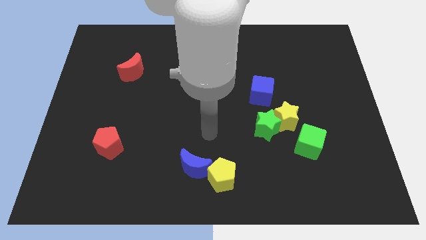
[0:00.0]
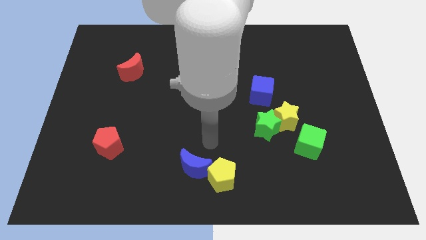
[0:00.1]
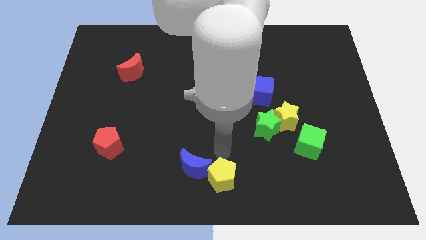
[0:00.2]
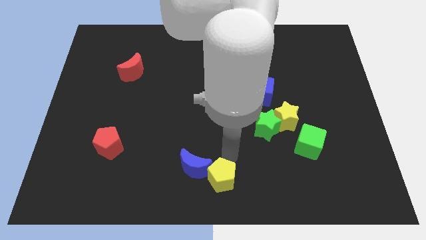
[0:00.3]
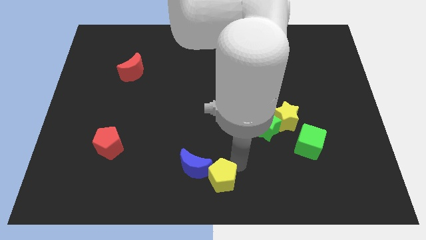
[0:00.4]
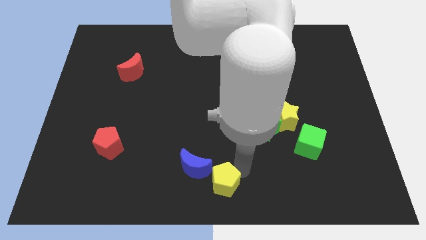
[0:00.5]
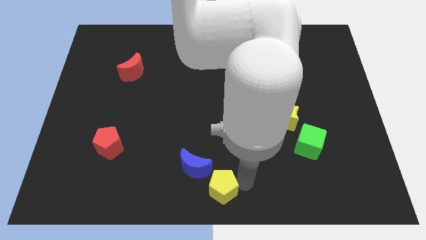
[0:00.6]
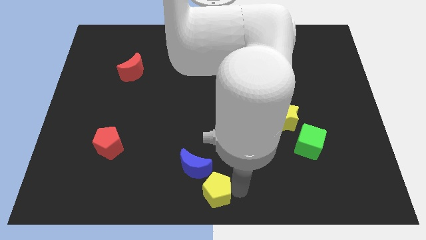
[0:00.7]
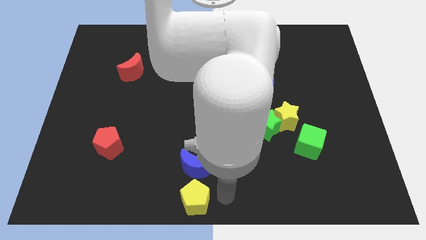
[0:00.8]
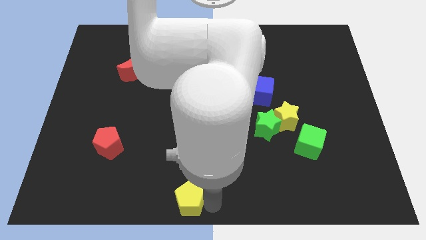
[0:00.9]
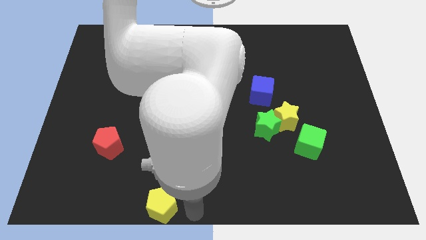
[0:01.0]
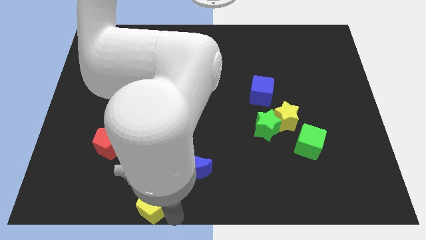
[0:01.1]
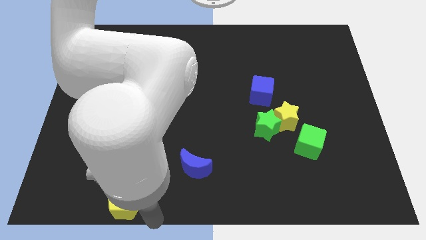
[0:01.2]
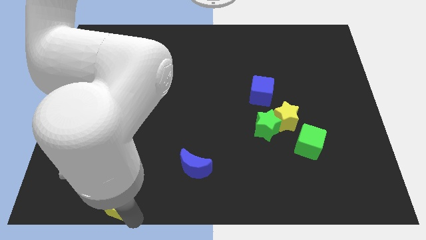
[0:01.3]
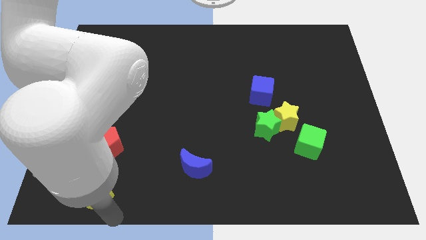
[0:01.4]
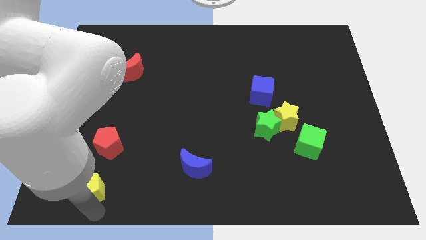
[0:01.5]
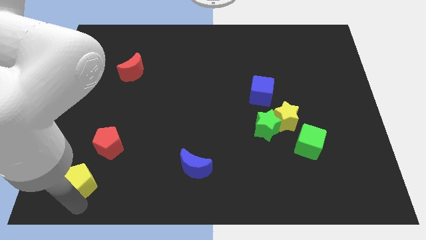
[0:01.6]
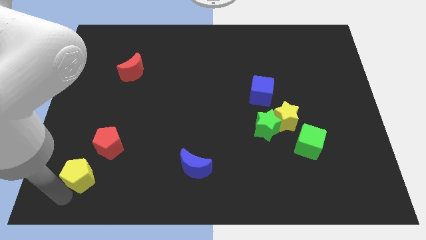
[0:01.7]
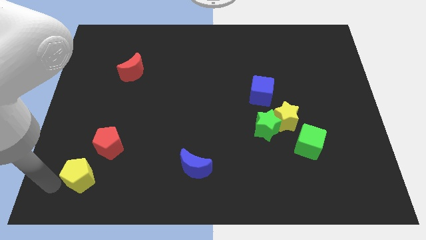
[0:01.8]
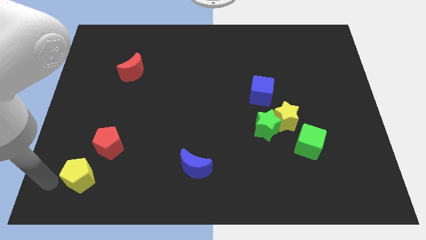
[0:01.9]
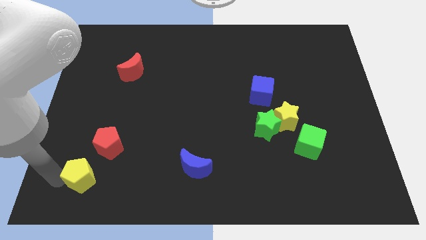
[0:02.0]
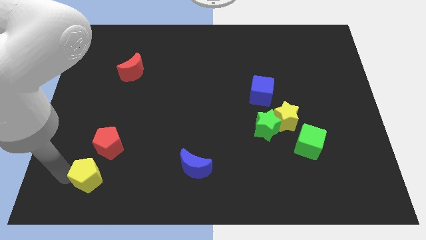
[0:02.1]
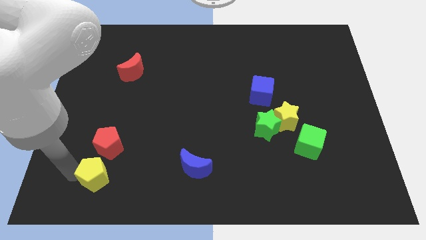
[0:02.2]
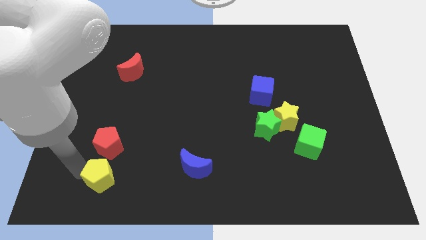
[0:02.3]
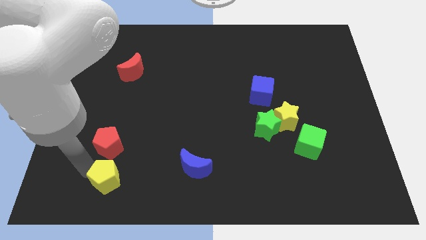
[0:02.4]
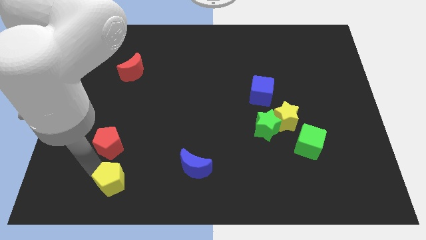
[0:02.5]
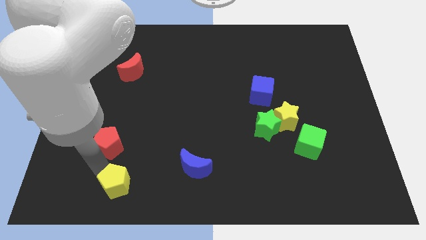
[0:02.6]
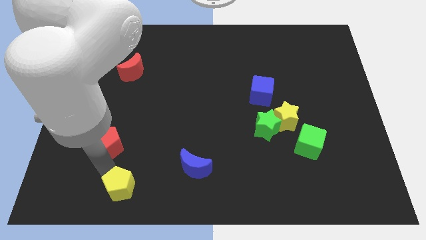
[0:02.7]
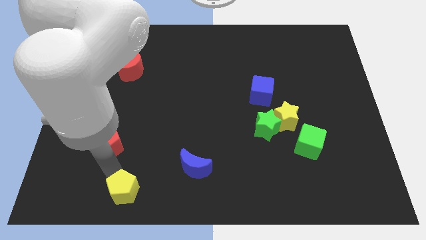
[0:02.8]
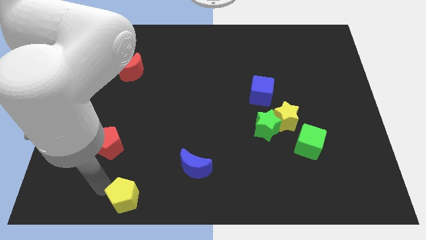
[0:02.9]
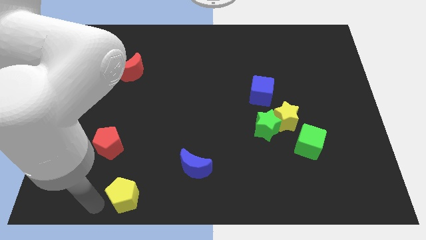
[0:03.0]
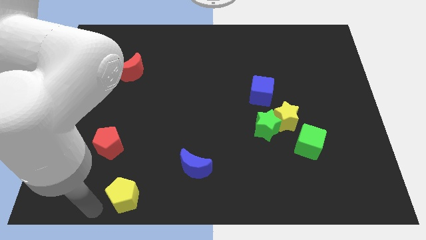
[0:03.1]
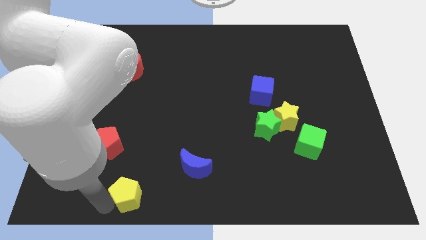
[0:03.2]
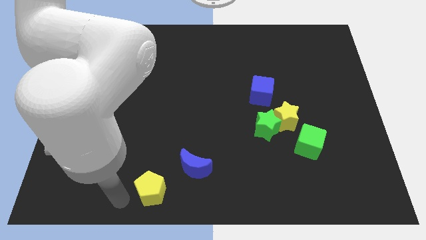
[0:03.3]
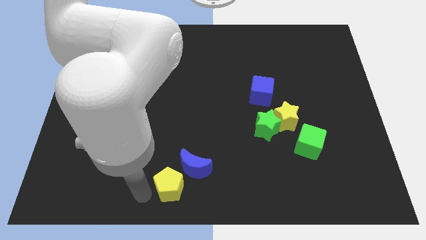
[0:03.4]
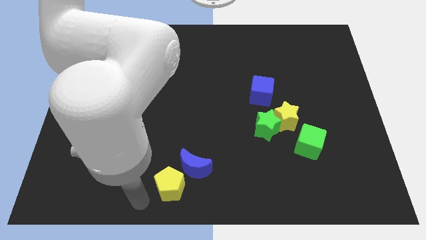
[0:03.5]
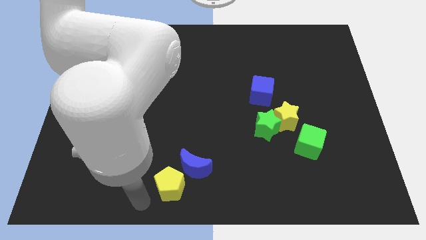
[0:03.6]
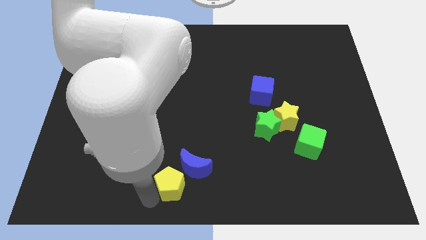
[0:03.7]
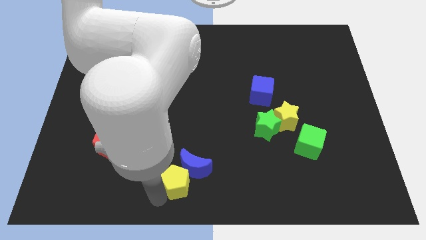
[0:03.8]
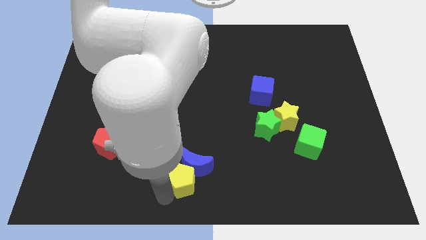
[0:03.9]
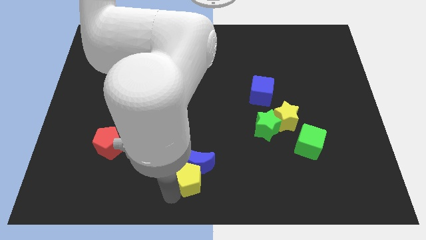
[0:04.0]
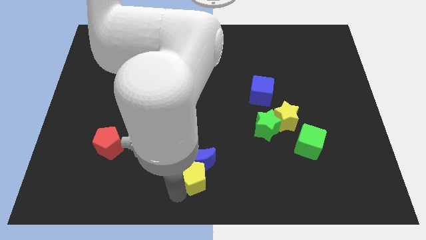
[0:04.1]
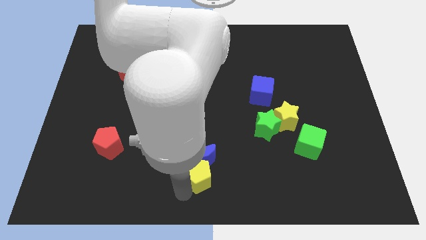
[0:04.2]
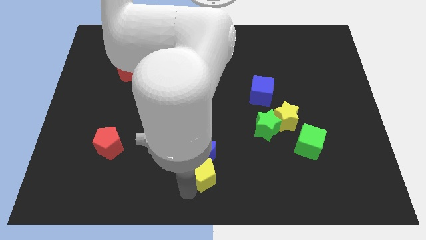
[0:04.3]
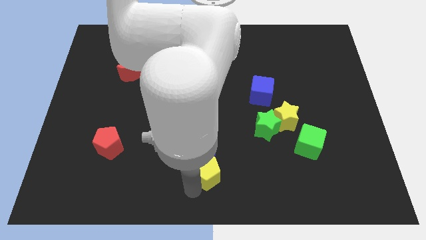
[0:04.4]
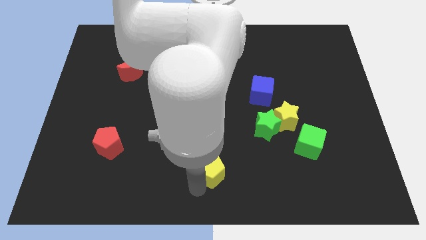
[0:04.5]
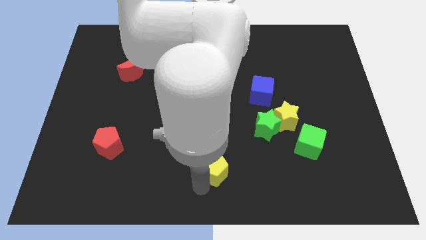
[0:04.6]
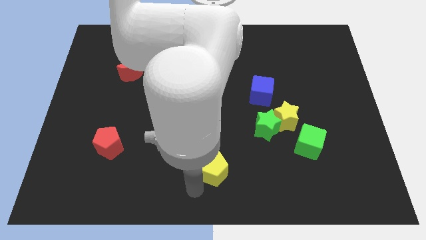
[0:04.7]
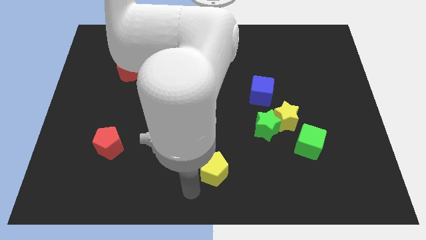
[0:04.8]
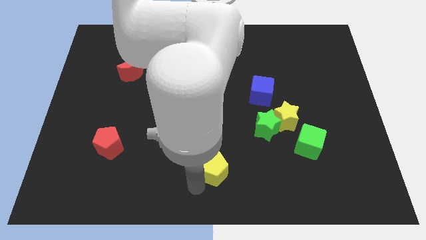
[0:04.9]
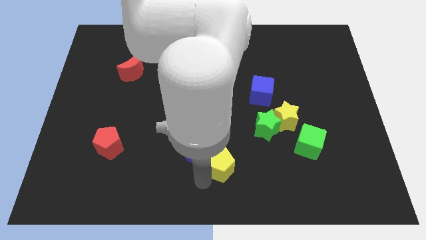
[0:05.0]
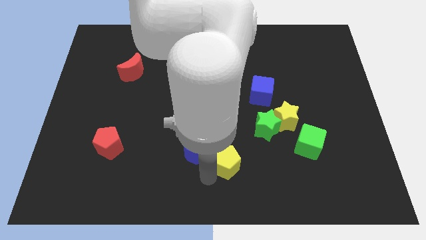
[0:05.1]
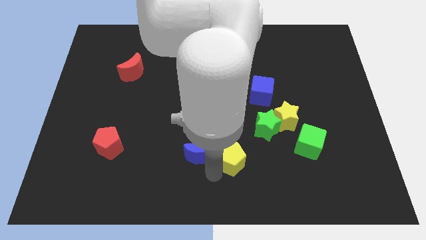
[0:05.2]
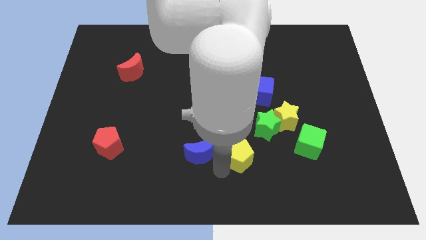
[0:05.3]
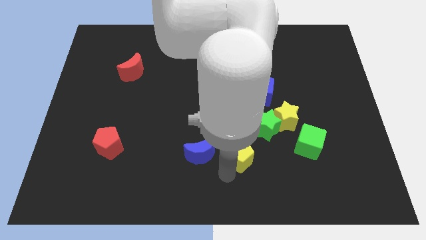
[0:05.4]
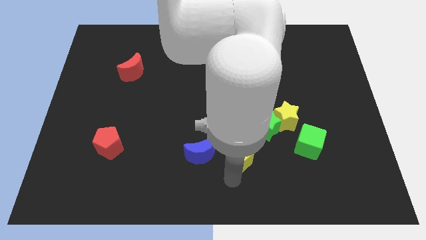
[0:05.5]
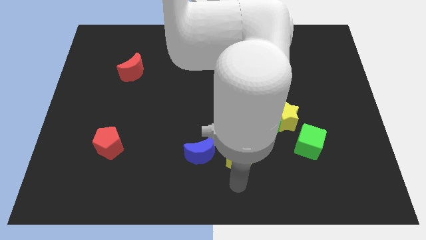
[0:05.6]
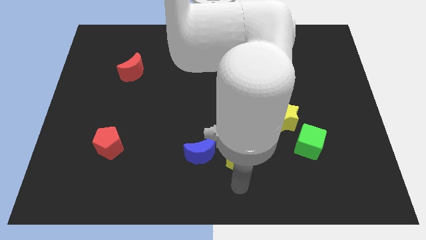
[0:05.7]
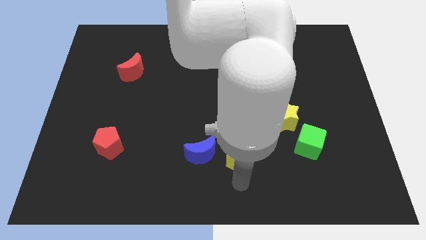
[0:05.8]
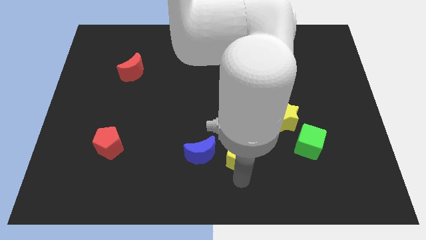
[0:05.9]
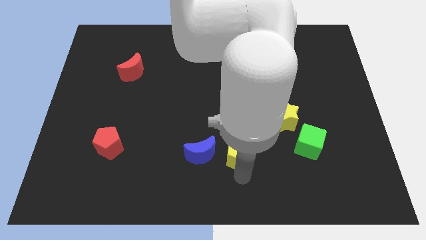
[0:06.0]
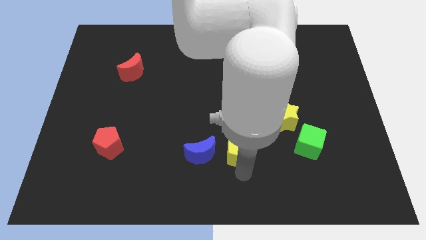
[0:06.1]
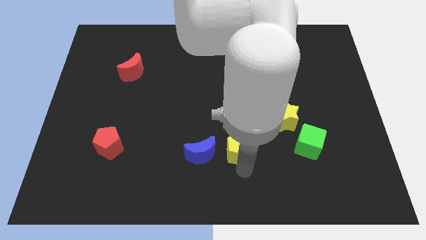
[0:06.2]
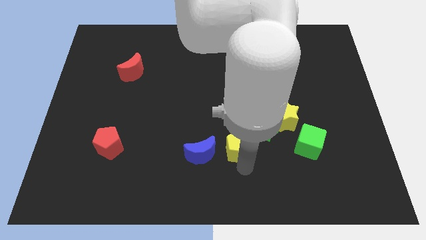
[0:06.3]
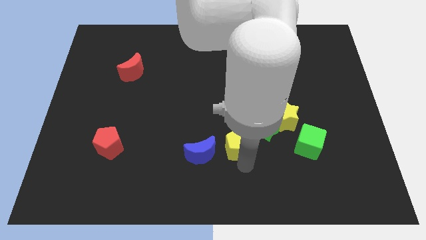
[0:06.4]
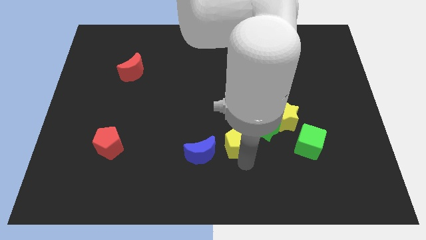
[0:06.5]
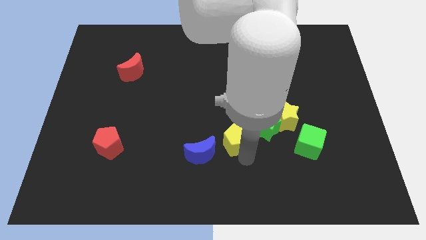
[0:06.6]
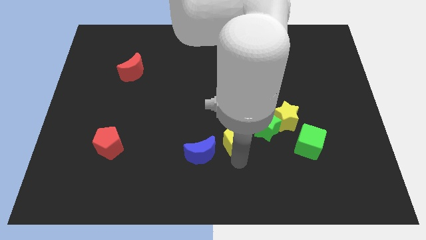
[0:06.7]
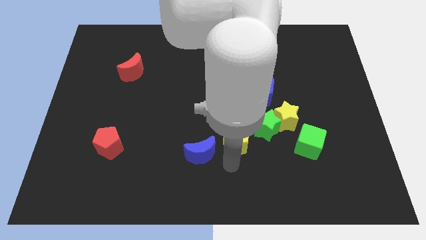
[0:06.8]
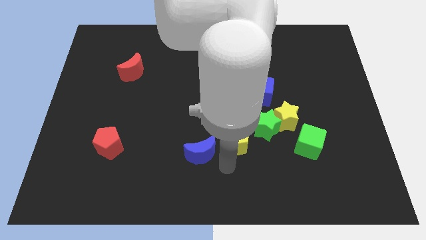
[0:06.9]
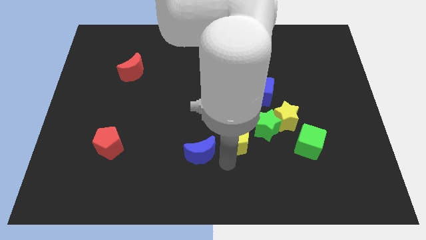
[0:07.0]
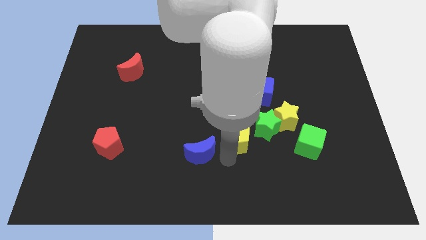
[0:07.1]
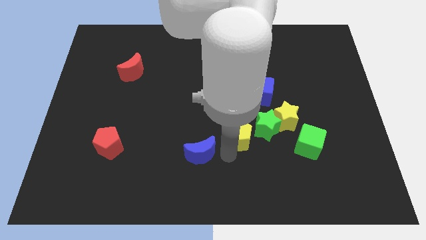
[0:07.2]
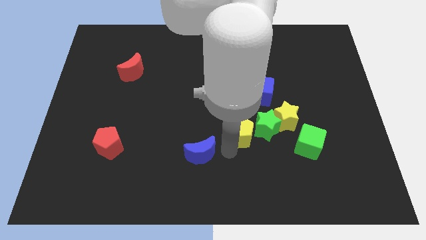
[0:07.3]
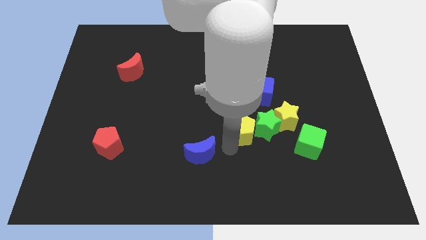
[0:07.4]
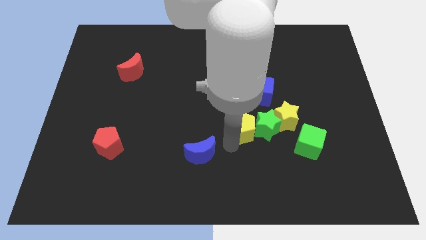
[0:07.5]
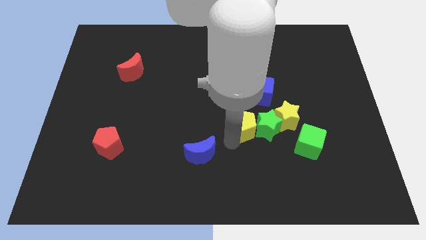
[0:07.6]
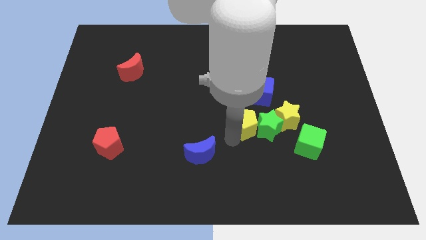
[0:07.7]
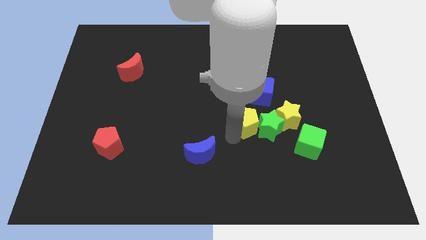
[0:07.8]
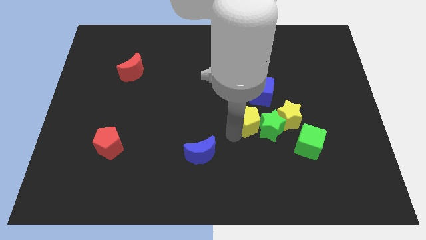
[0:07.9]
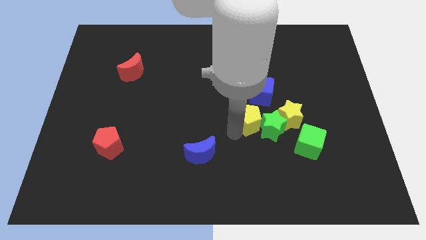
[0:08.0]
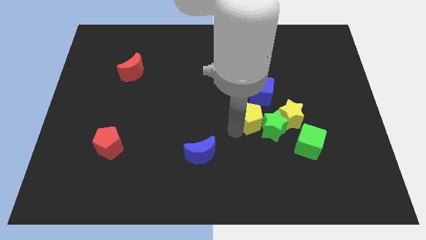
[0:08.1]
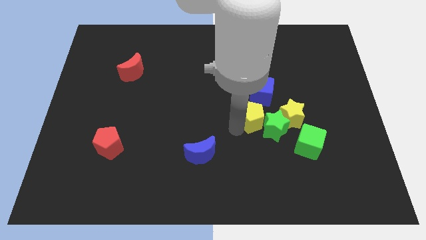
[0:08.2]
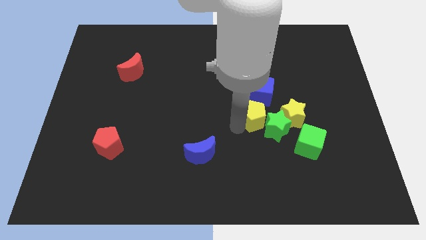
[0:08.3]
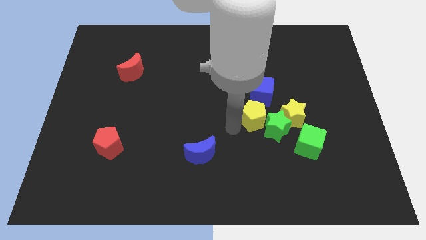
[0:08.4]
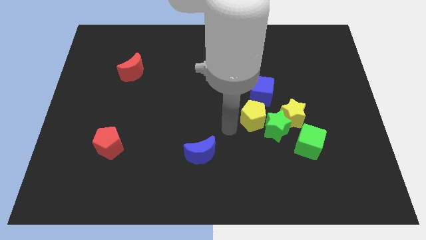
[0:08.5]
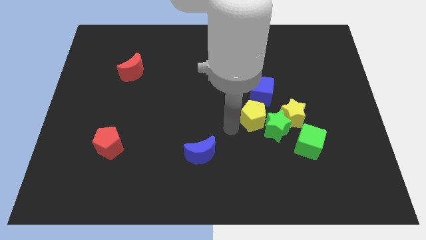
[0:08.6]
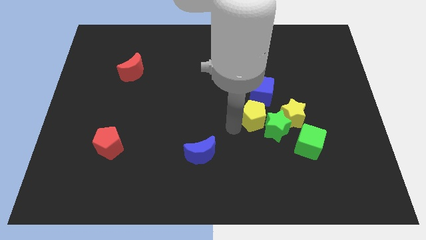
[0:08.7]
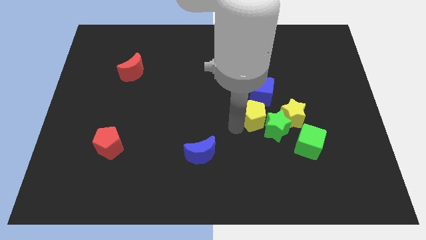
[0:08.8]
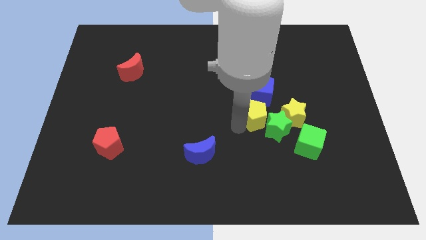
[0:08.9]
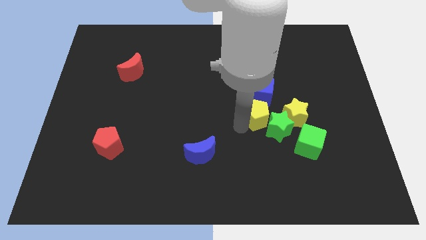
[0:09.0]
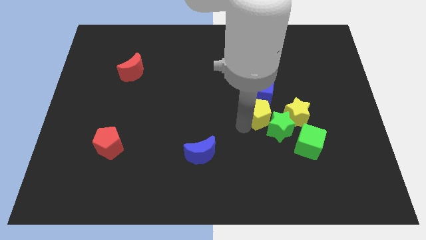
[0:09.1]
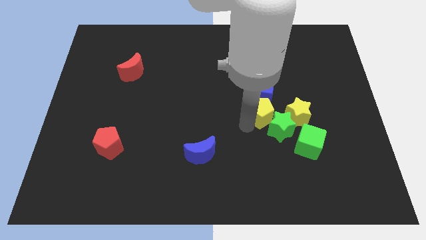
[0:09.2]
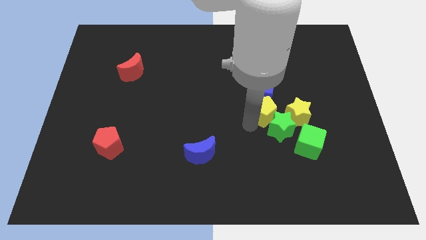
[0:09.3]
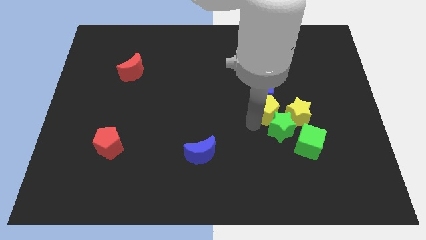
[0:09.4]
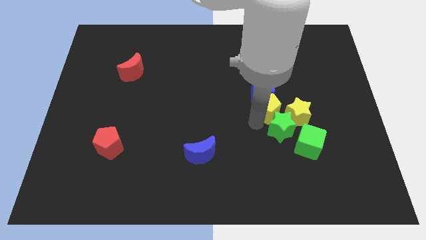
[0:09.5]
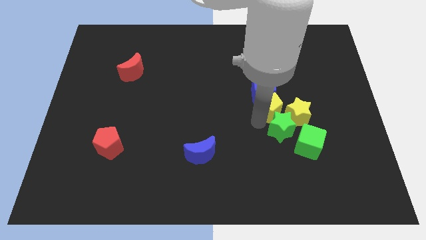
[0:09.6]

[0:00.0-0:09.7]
push the yellow pentagon up and to the right
